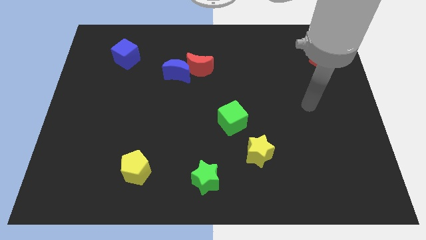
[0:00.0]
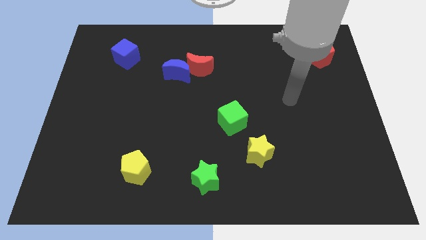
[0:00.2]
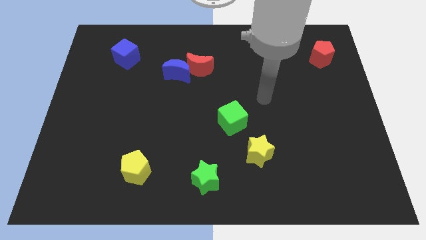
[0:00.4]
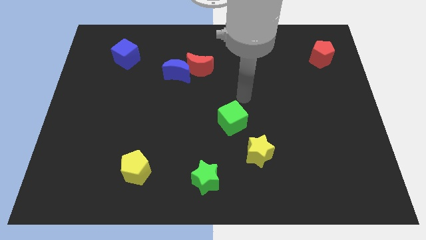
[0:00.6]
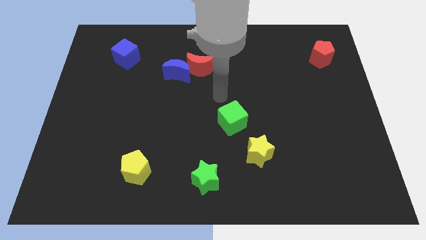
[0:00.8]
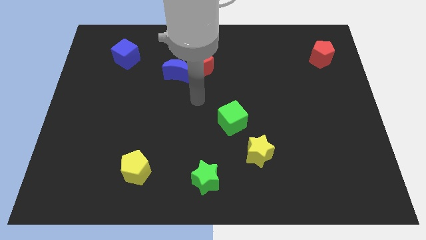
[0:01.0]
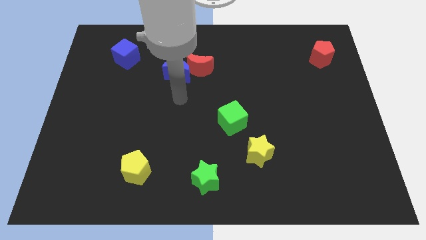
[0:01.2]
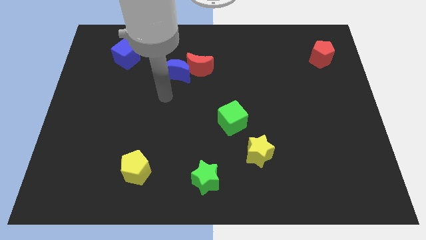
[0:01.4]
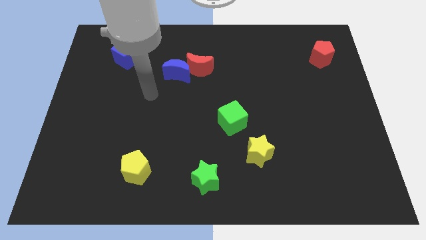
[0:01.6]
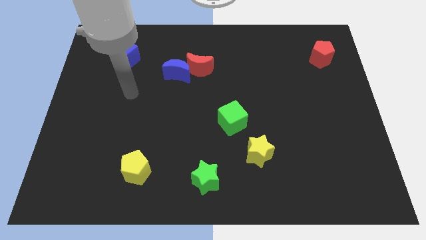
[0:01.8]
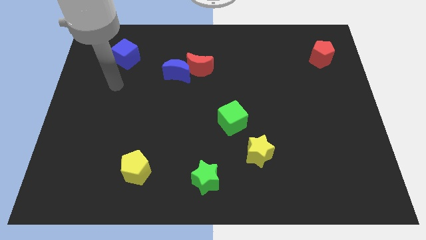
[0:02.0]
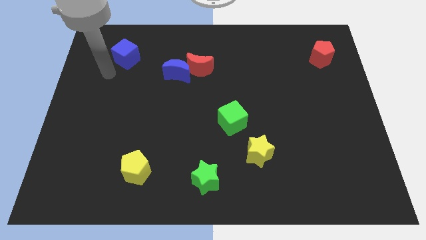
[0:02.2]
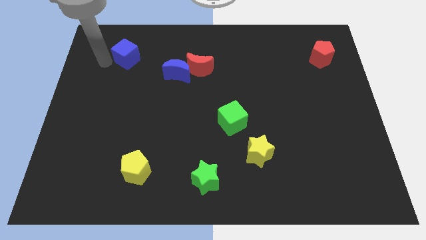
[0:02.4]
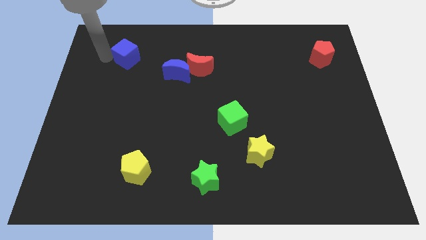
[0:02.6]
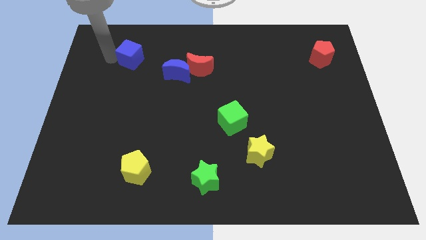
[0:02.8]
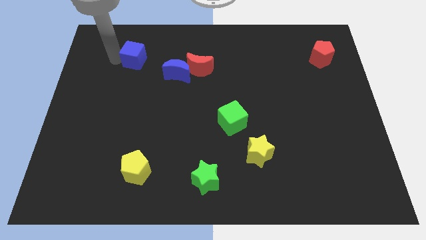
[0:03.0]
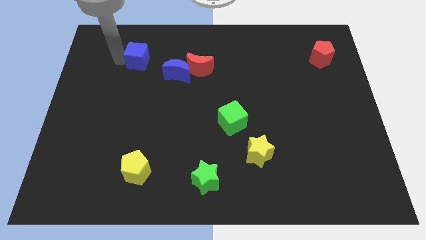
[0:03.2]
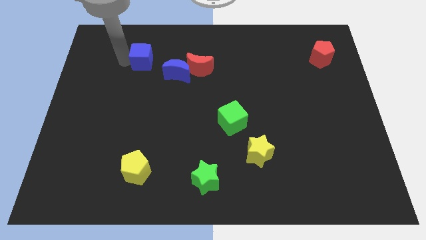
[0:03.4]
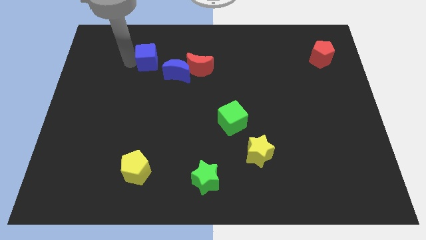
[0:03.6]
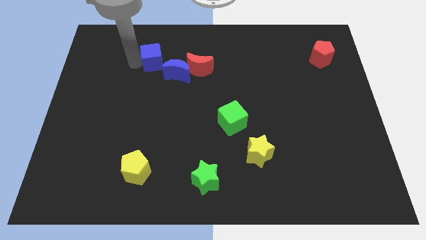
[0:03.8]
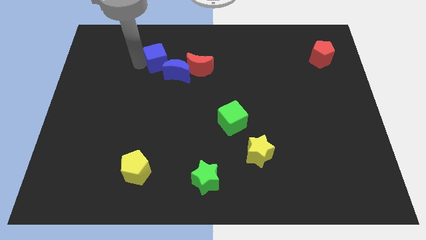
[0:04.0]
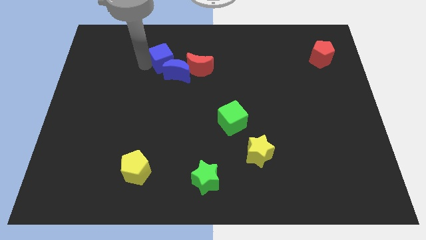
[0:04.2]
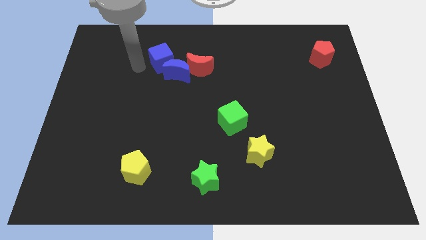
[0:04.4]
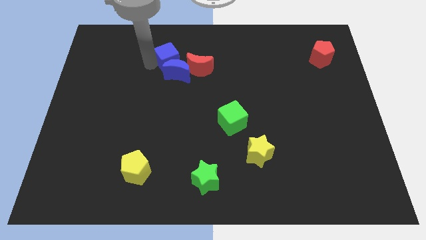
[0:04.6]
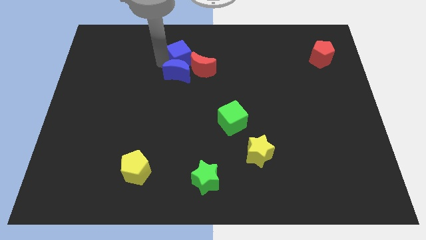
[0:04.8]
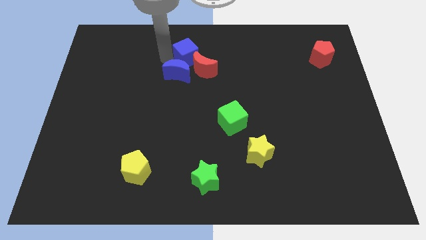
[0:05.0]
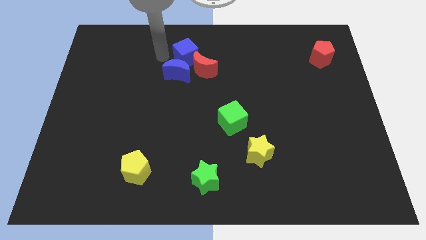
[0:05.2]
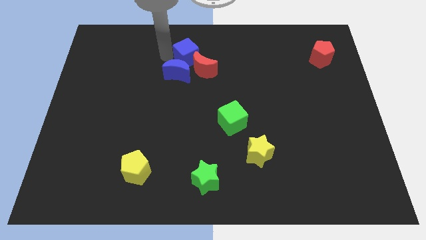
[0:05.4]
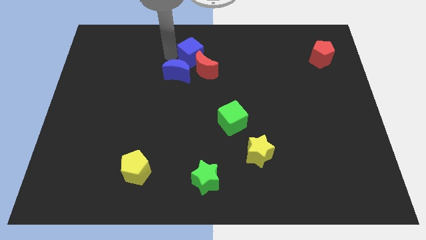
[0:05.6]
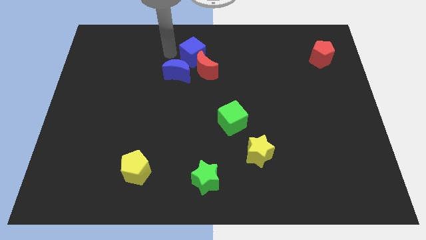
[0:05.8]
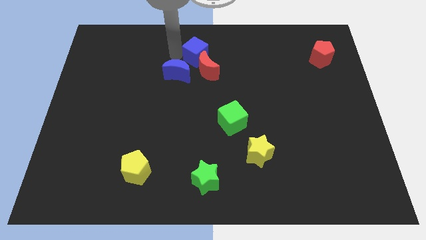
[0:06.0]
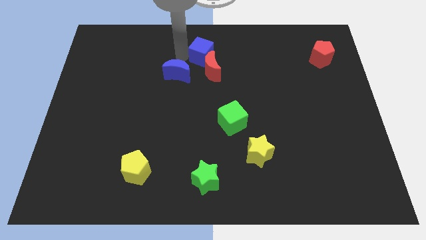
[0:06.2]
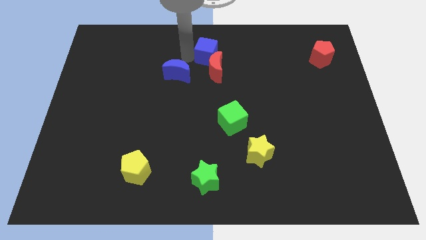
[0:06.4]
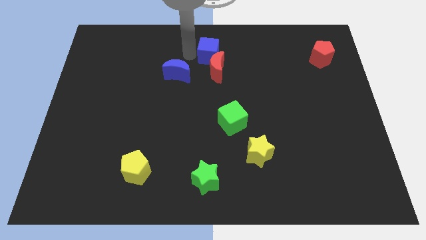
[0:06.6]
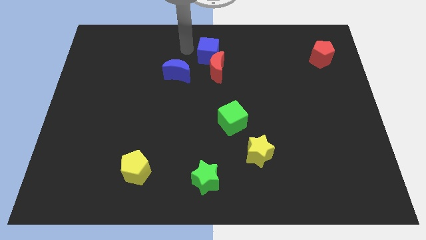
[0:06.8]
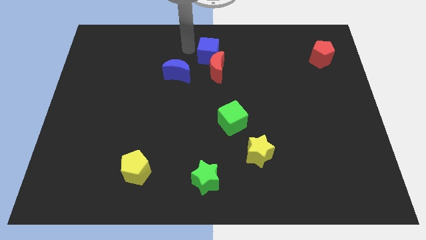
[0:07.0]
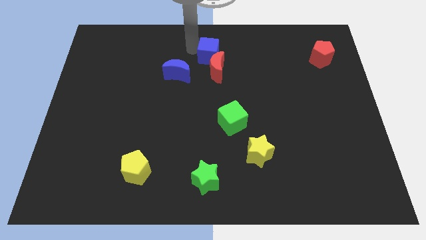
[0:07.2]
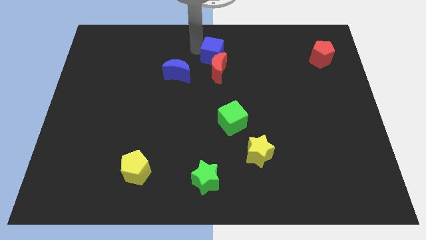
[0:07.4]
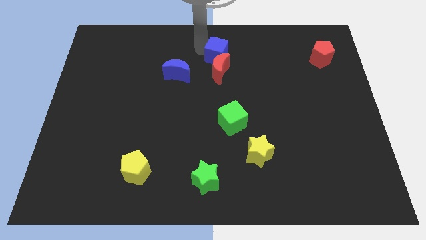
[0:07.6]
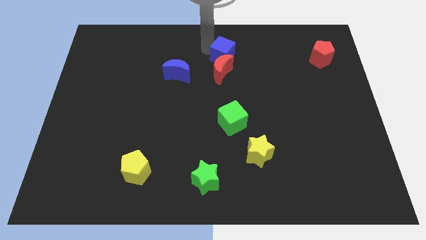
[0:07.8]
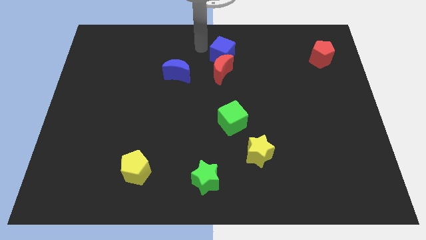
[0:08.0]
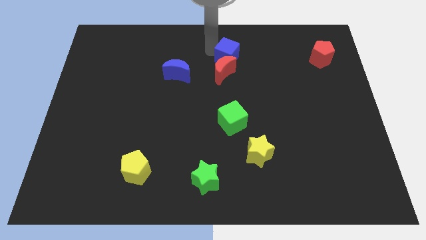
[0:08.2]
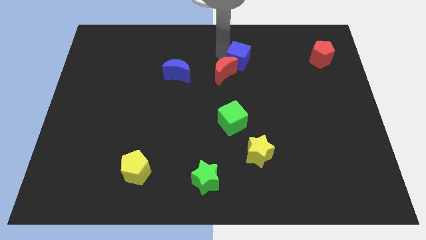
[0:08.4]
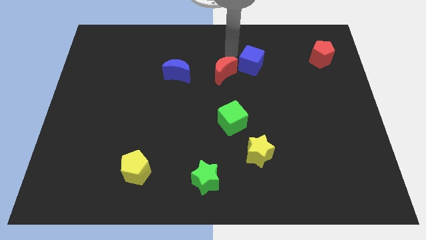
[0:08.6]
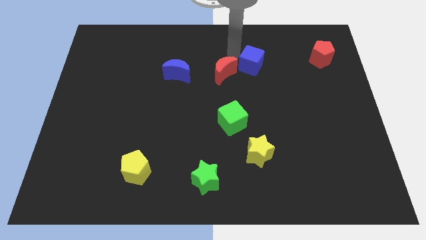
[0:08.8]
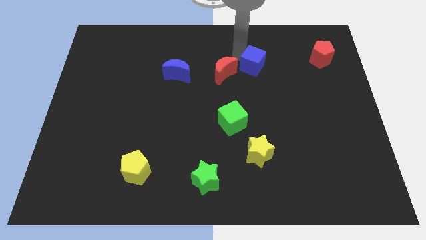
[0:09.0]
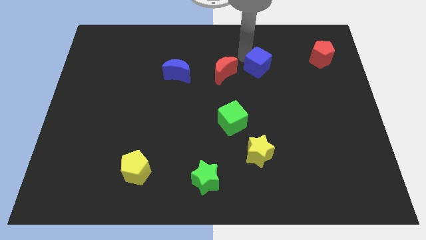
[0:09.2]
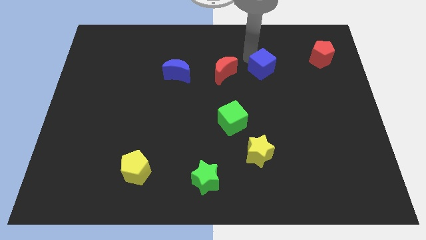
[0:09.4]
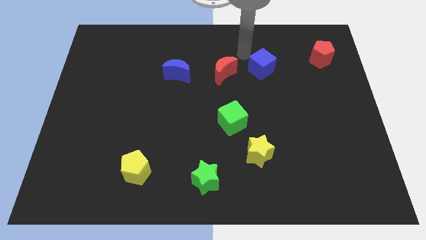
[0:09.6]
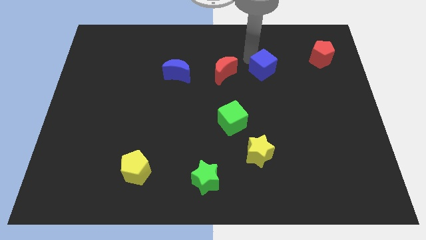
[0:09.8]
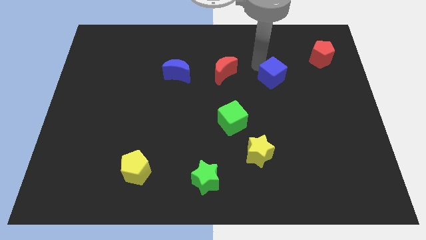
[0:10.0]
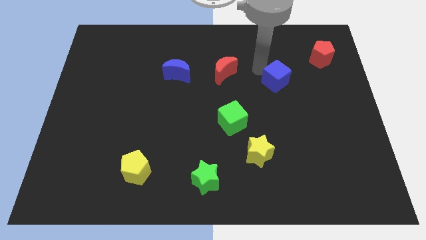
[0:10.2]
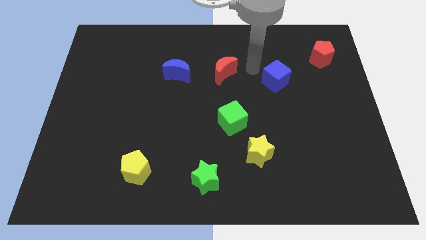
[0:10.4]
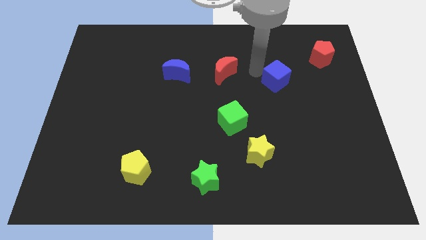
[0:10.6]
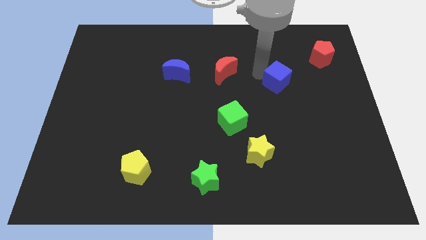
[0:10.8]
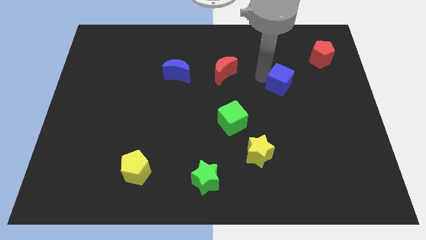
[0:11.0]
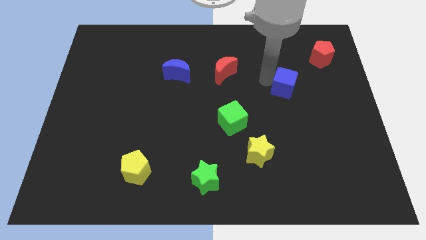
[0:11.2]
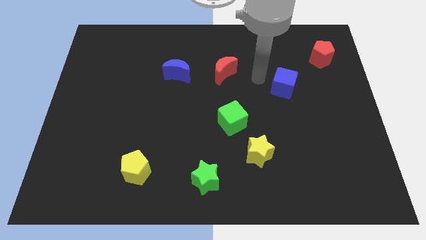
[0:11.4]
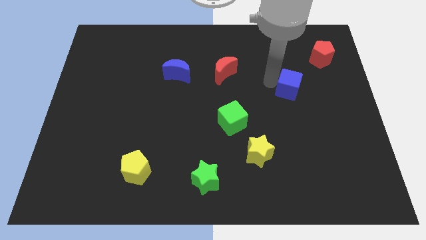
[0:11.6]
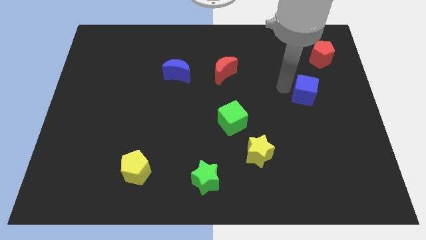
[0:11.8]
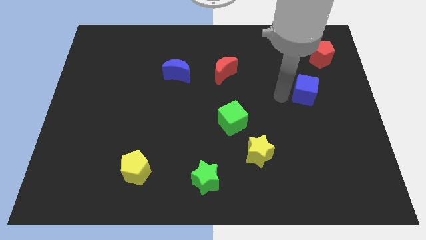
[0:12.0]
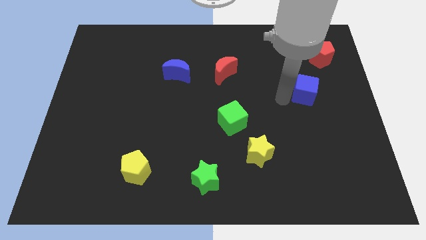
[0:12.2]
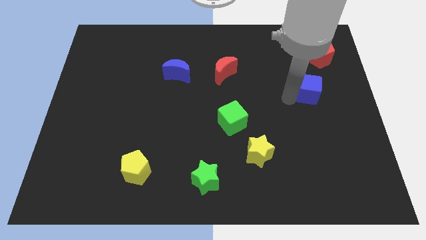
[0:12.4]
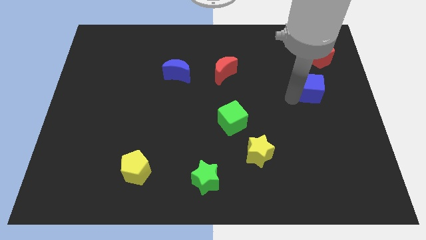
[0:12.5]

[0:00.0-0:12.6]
put the blue cube to the bottom side of the red pentagon

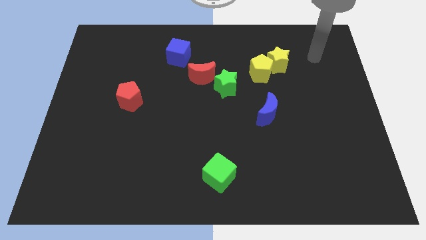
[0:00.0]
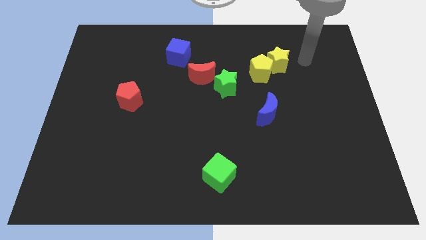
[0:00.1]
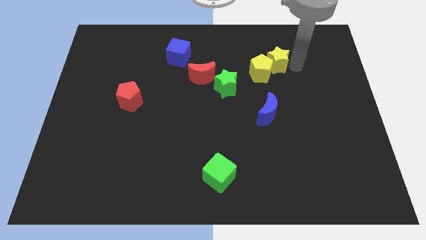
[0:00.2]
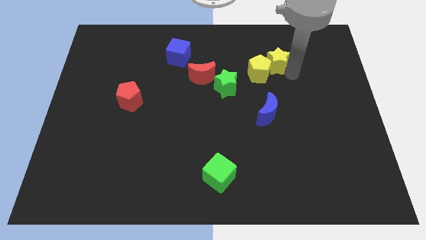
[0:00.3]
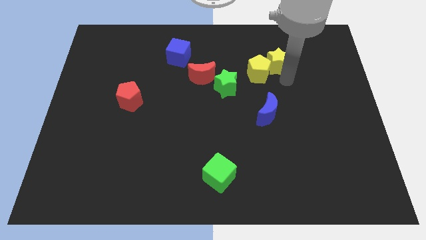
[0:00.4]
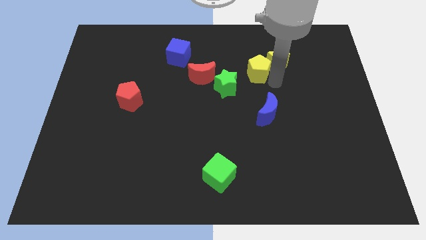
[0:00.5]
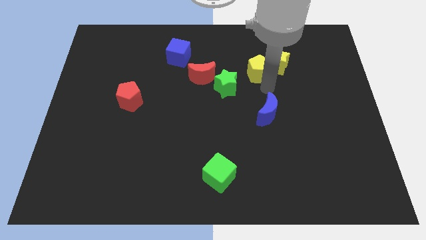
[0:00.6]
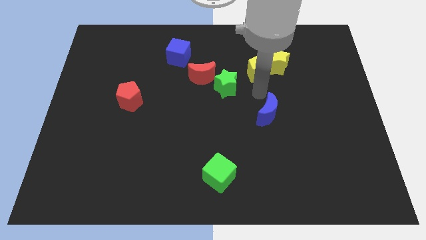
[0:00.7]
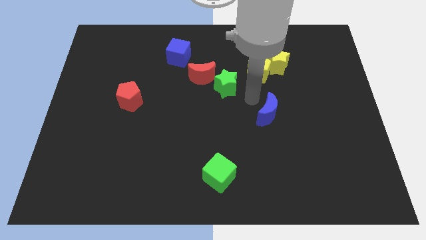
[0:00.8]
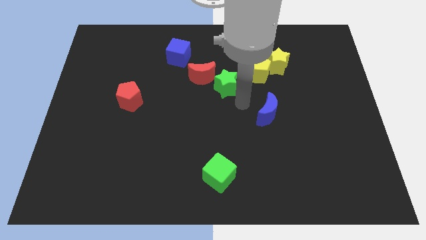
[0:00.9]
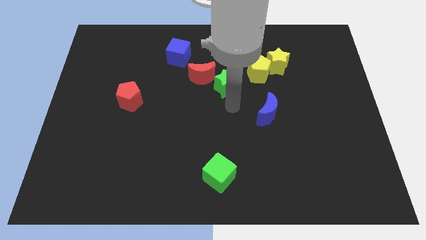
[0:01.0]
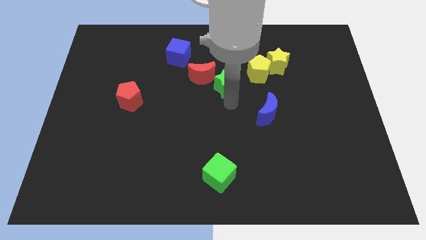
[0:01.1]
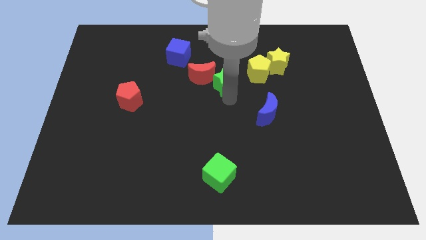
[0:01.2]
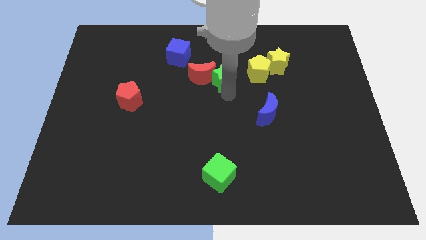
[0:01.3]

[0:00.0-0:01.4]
push the green star to the top right of the red moon
